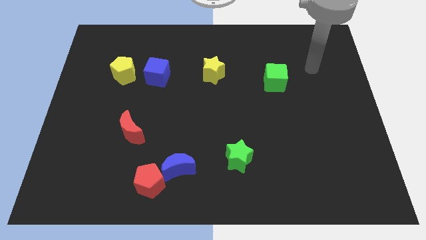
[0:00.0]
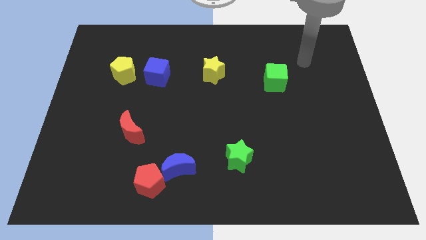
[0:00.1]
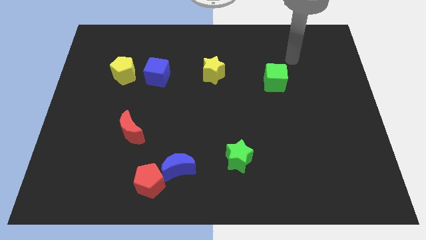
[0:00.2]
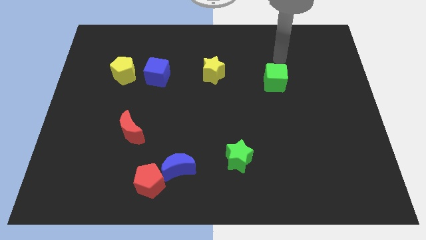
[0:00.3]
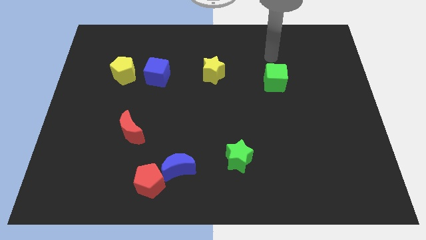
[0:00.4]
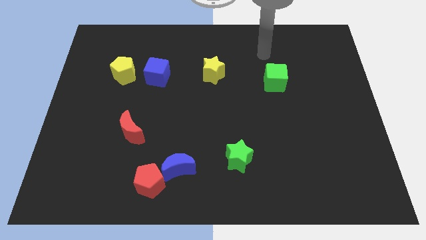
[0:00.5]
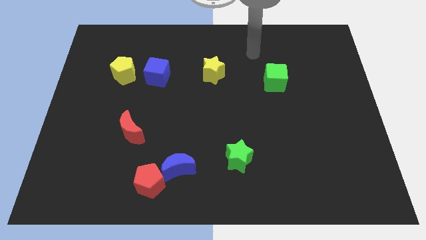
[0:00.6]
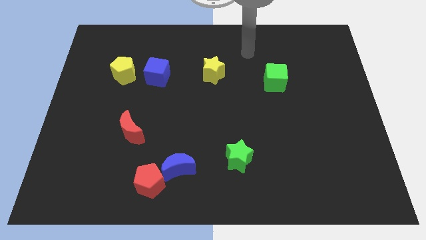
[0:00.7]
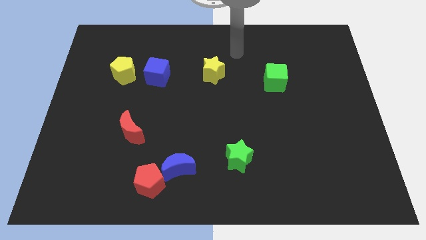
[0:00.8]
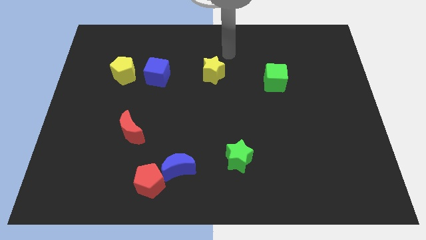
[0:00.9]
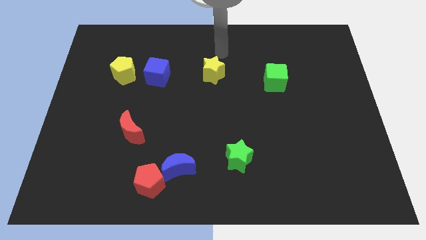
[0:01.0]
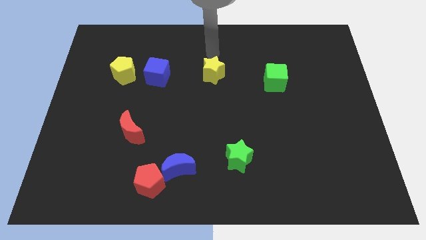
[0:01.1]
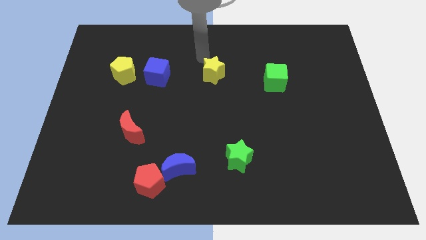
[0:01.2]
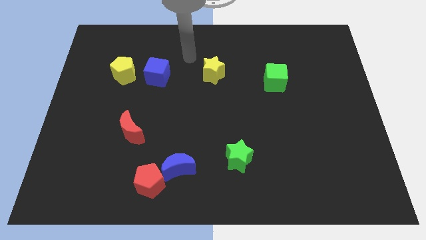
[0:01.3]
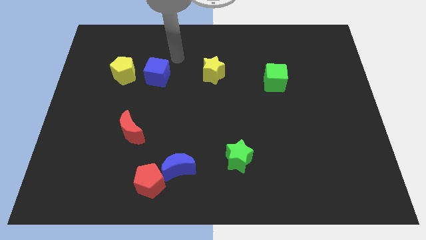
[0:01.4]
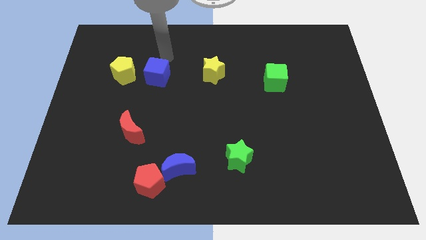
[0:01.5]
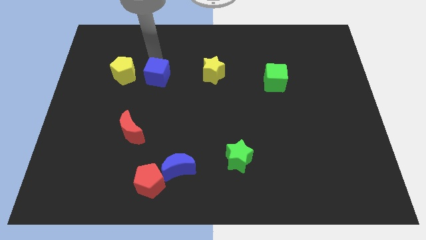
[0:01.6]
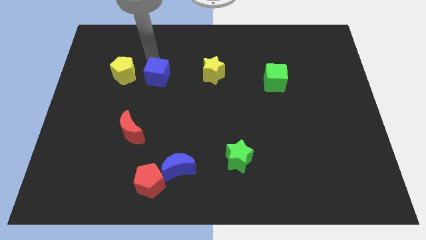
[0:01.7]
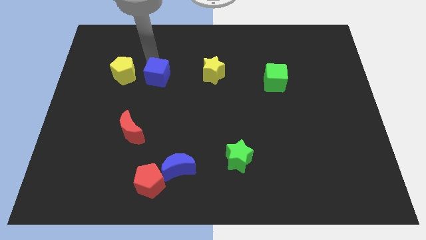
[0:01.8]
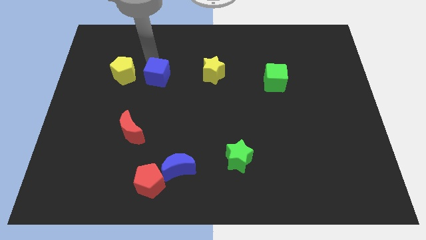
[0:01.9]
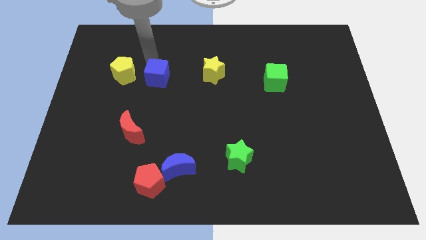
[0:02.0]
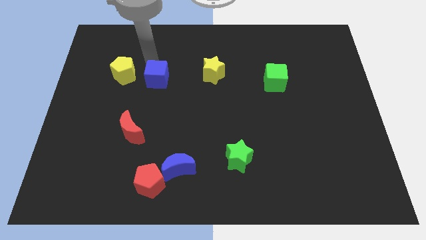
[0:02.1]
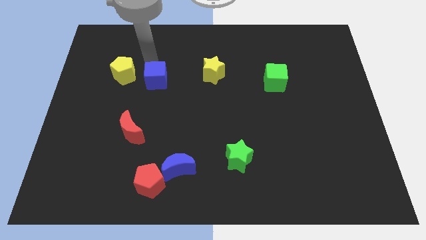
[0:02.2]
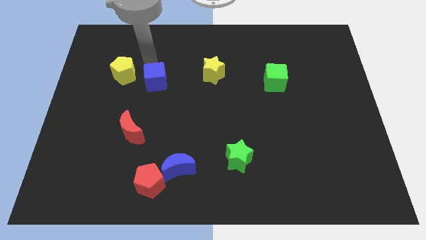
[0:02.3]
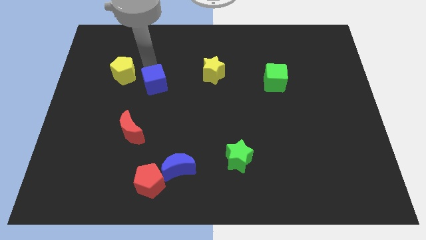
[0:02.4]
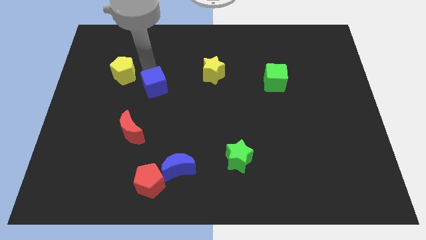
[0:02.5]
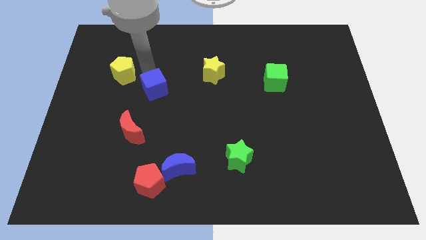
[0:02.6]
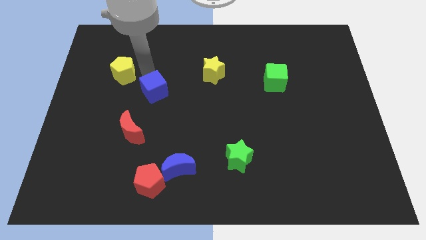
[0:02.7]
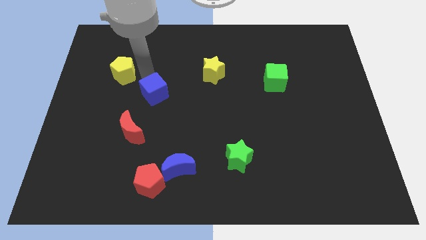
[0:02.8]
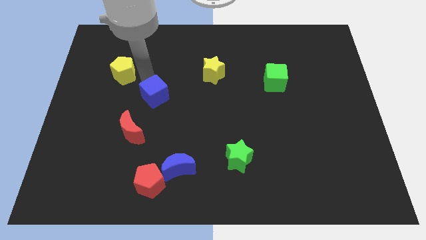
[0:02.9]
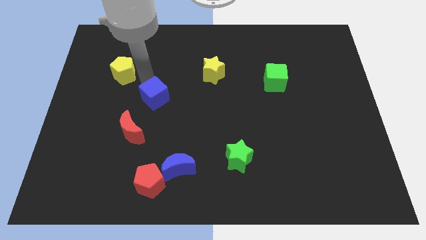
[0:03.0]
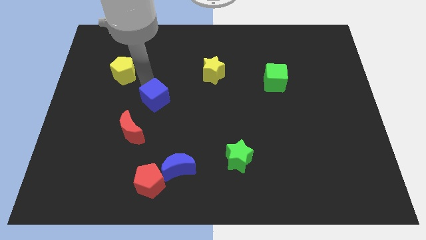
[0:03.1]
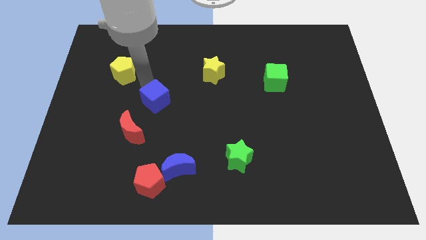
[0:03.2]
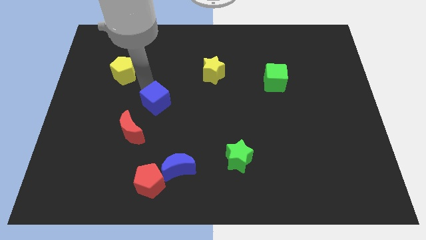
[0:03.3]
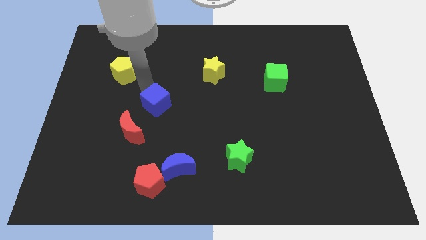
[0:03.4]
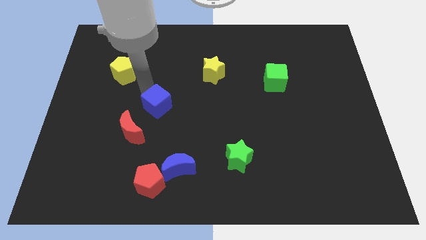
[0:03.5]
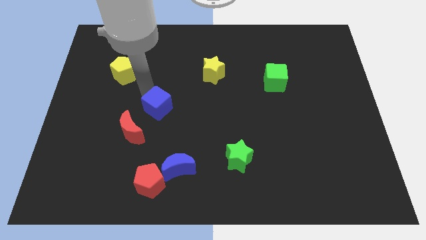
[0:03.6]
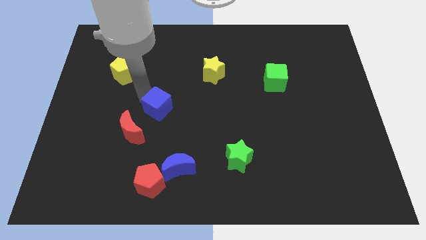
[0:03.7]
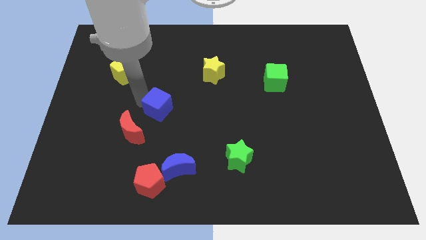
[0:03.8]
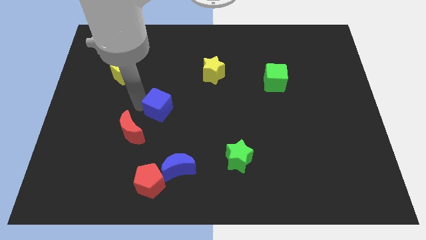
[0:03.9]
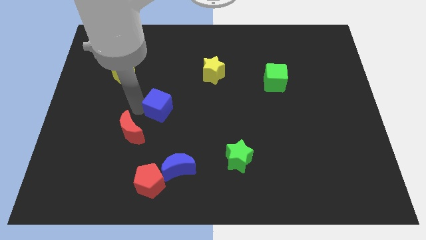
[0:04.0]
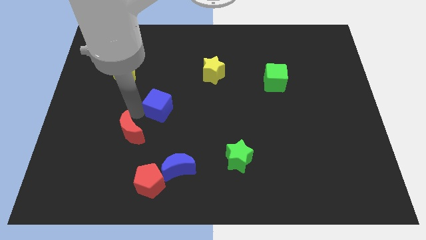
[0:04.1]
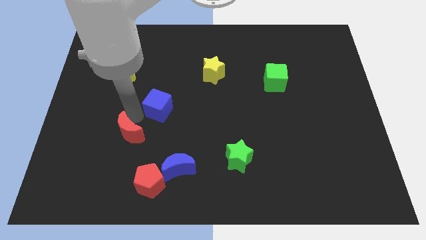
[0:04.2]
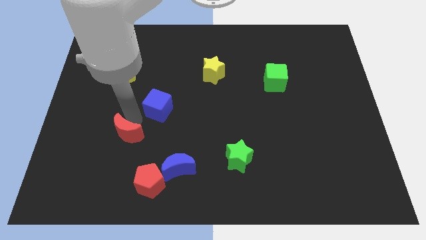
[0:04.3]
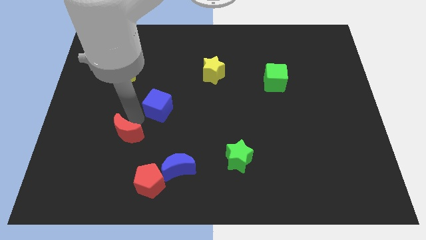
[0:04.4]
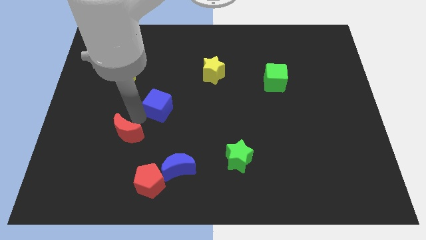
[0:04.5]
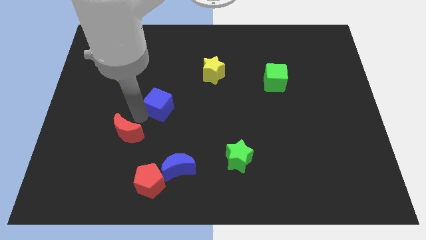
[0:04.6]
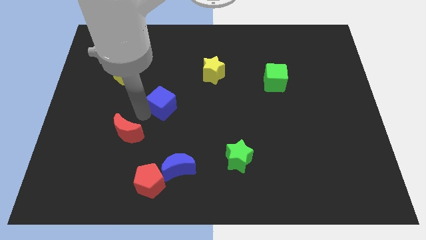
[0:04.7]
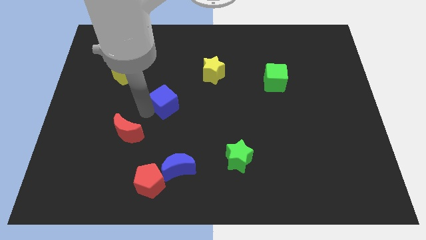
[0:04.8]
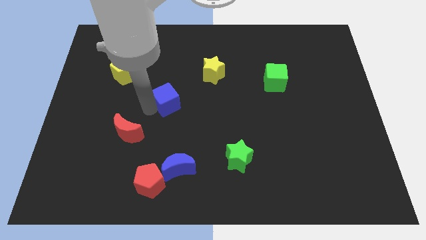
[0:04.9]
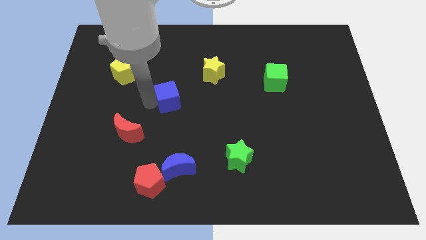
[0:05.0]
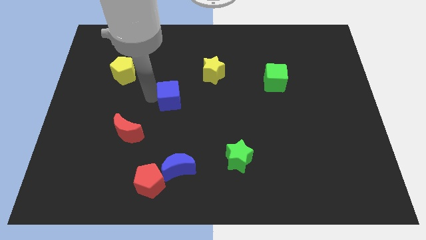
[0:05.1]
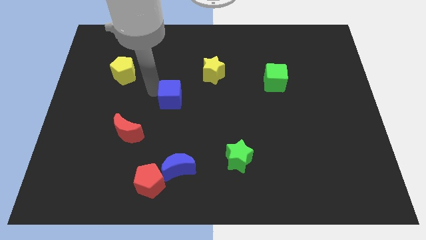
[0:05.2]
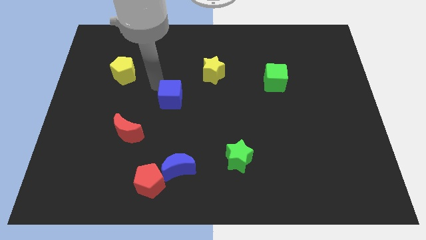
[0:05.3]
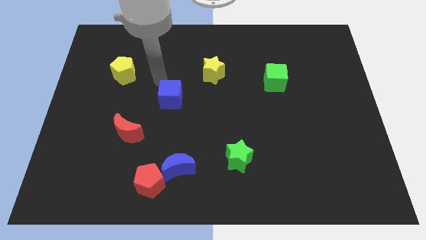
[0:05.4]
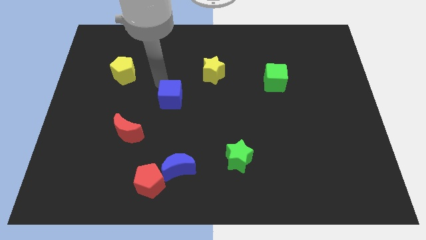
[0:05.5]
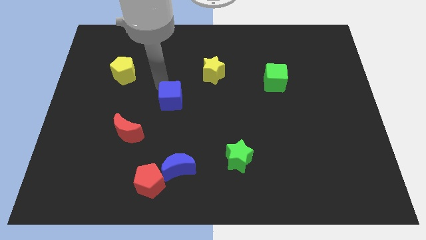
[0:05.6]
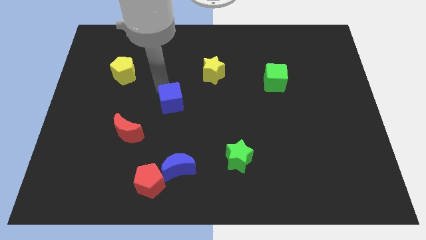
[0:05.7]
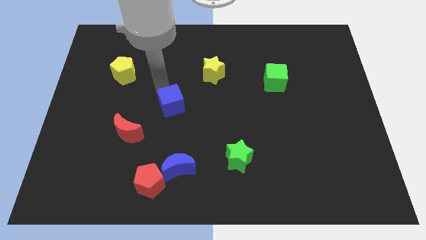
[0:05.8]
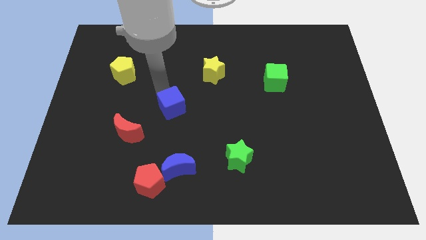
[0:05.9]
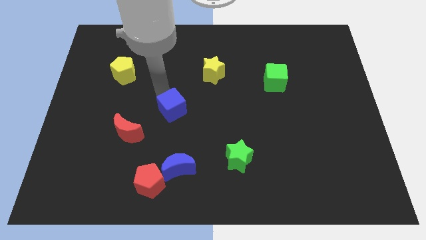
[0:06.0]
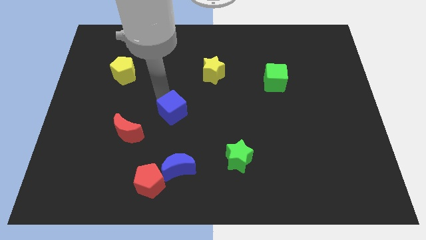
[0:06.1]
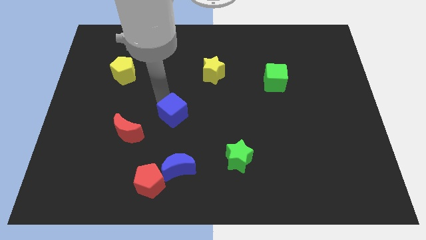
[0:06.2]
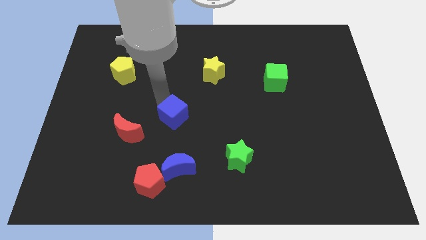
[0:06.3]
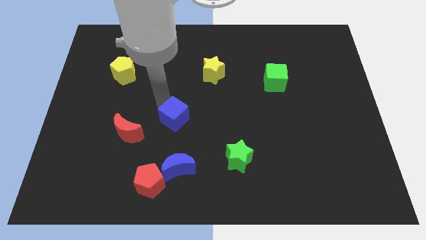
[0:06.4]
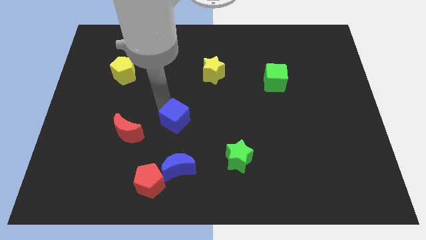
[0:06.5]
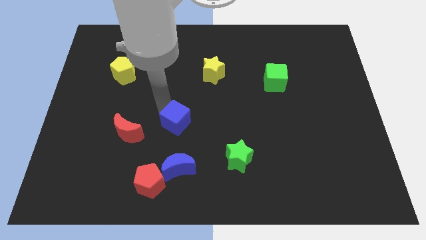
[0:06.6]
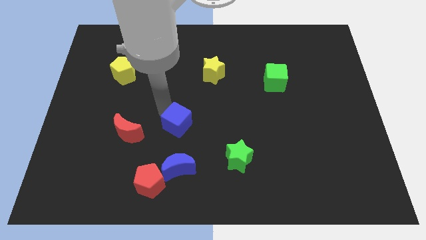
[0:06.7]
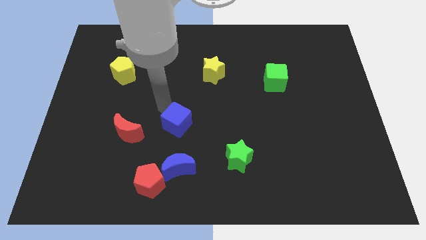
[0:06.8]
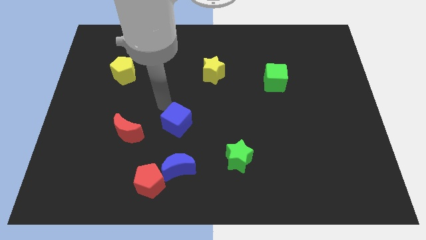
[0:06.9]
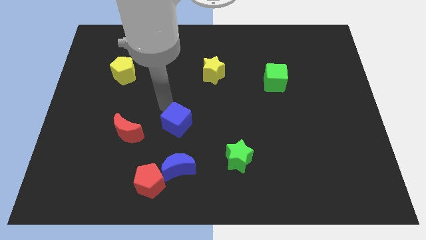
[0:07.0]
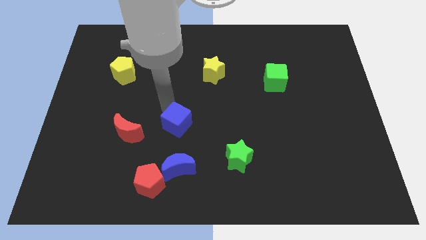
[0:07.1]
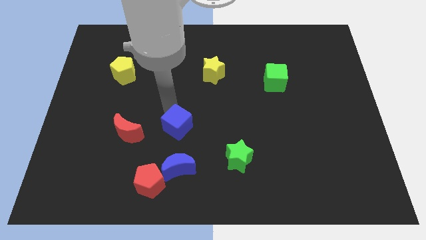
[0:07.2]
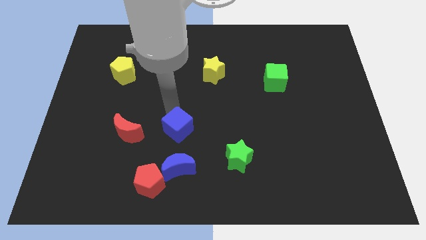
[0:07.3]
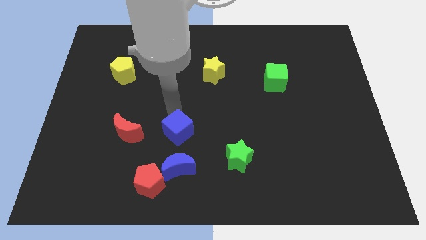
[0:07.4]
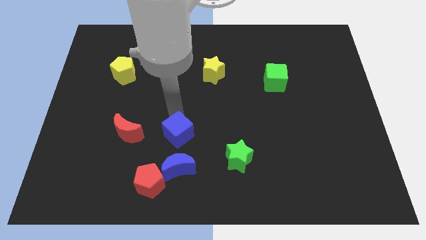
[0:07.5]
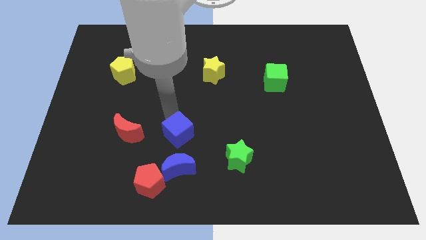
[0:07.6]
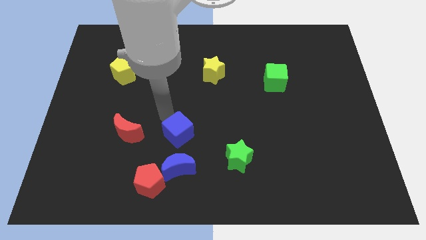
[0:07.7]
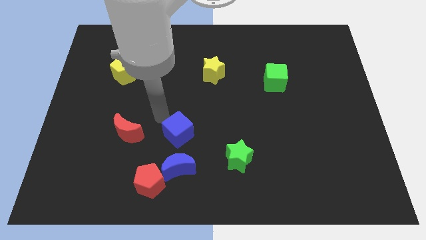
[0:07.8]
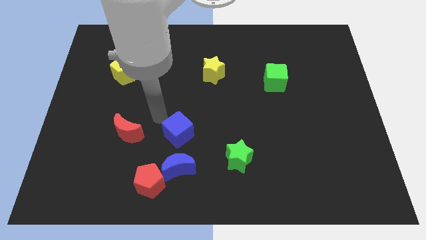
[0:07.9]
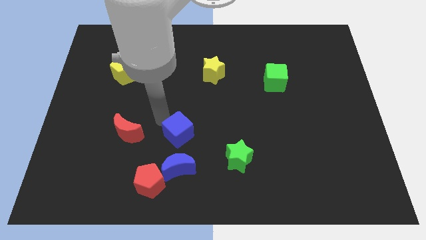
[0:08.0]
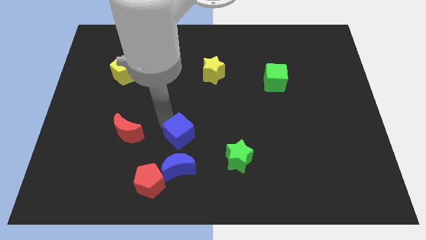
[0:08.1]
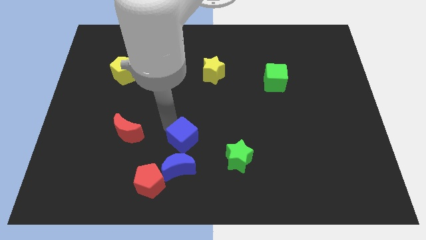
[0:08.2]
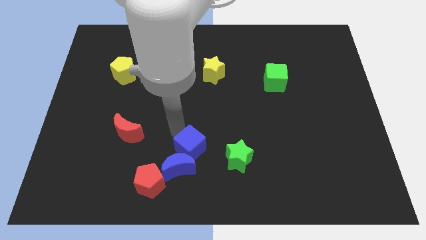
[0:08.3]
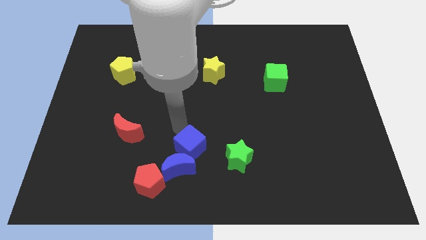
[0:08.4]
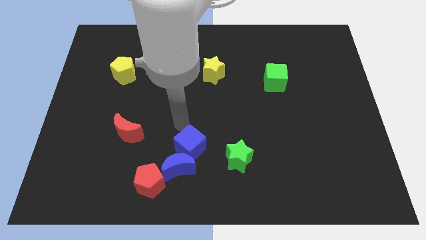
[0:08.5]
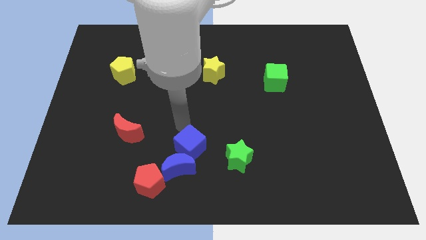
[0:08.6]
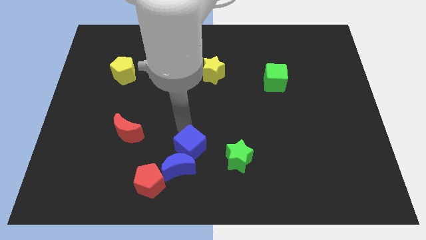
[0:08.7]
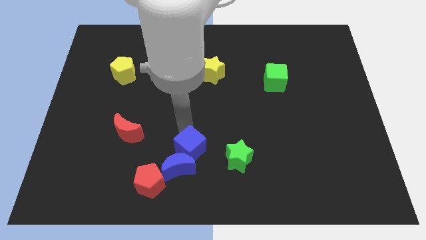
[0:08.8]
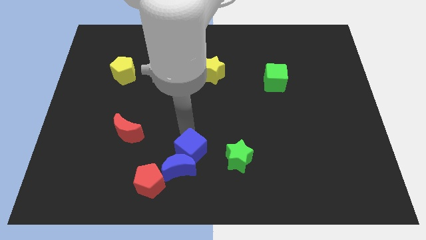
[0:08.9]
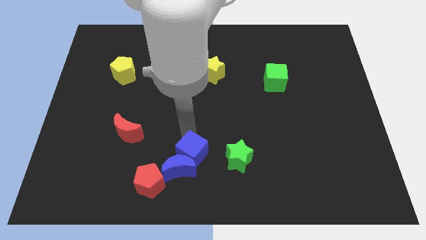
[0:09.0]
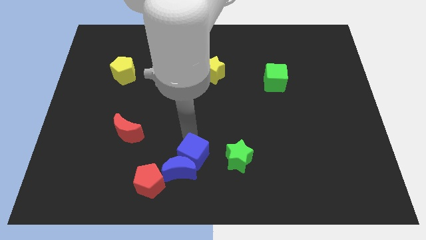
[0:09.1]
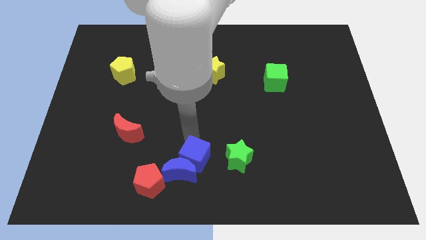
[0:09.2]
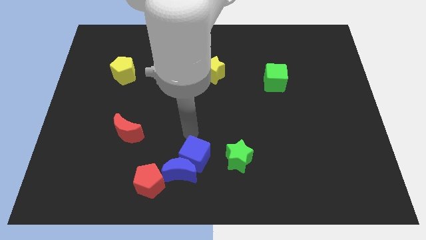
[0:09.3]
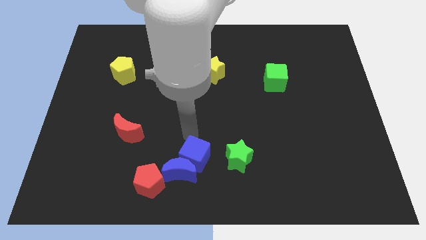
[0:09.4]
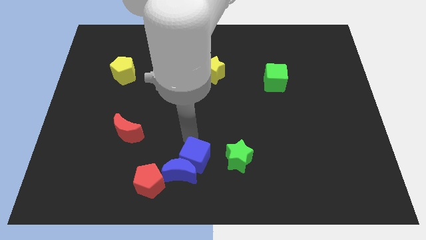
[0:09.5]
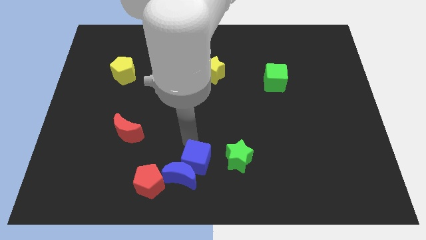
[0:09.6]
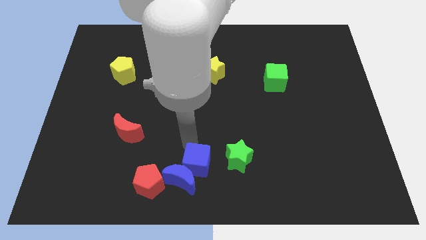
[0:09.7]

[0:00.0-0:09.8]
push the blue cube to the right side of the red pentagon
